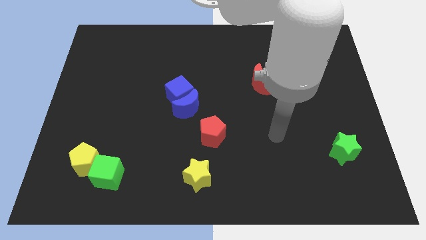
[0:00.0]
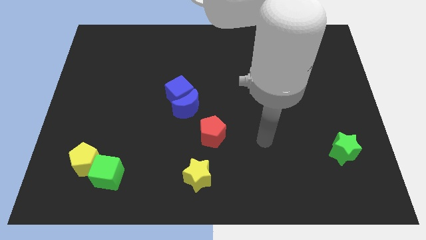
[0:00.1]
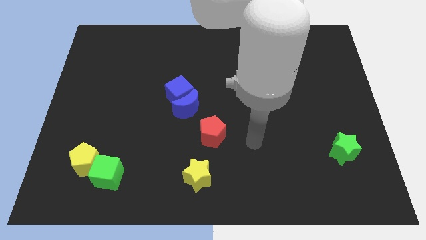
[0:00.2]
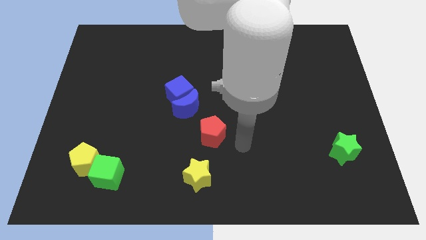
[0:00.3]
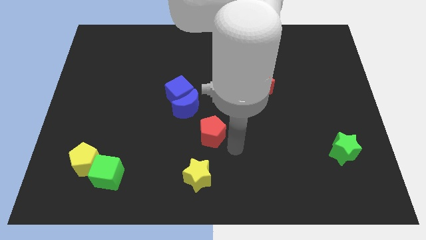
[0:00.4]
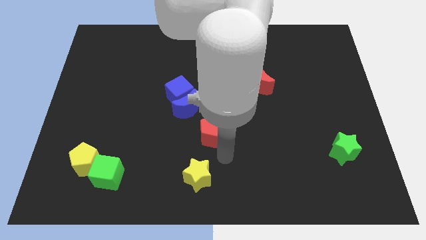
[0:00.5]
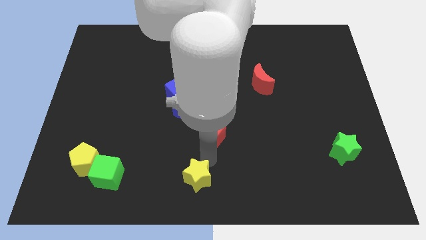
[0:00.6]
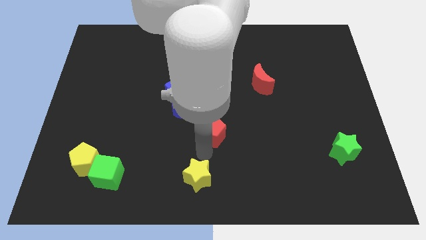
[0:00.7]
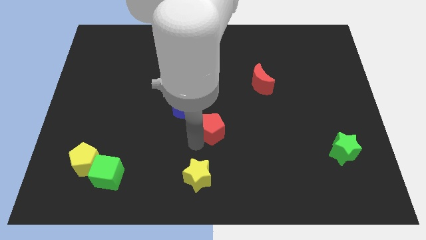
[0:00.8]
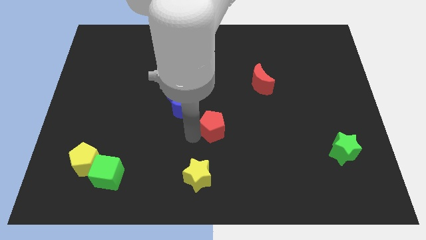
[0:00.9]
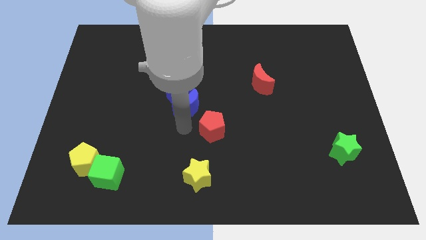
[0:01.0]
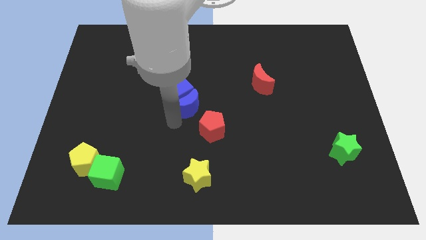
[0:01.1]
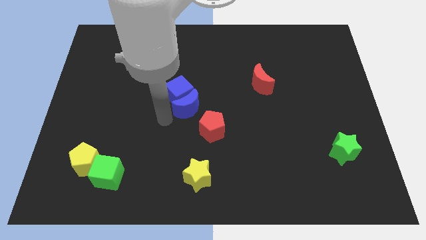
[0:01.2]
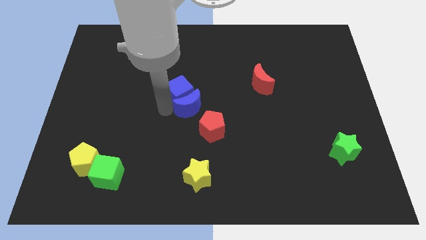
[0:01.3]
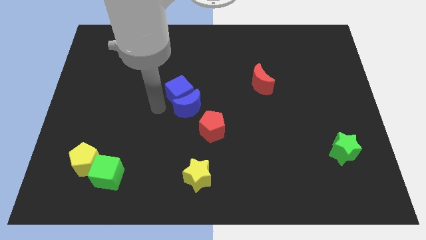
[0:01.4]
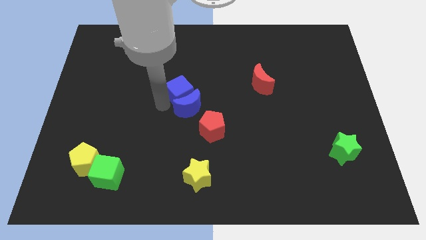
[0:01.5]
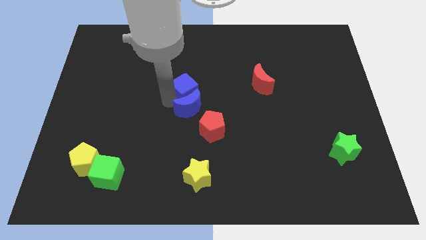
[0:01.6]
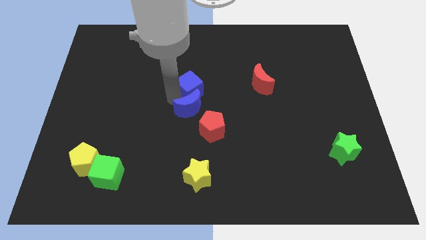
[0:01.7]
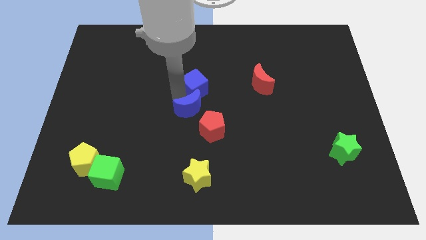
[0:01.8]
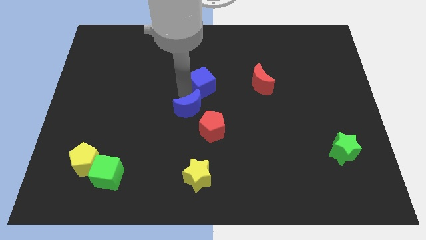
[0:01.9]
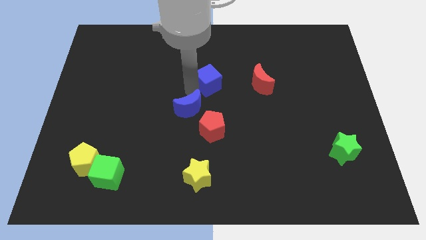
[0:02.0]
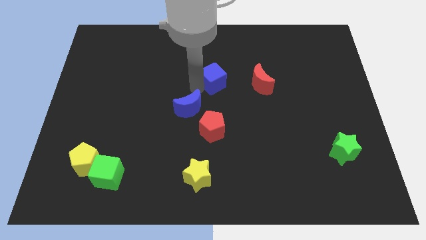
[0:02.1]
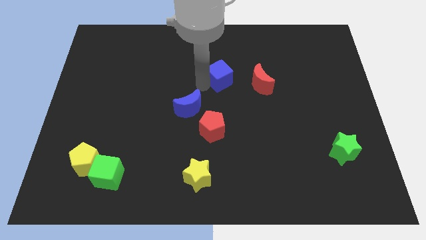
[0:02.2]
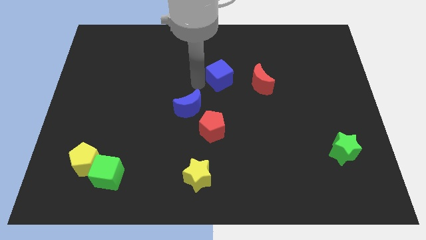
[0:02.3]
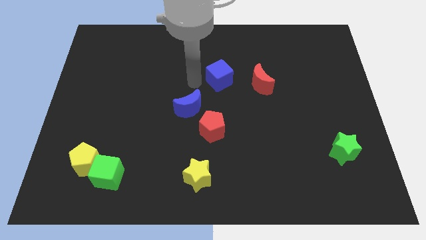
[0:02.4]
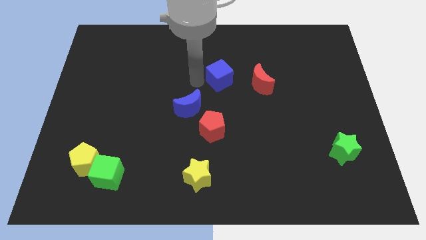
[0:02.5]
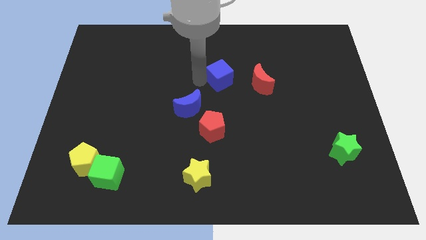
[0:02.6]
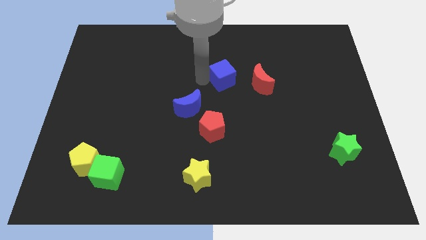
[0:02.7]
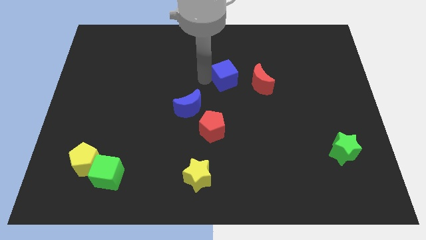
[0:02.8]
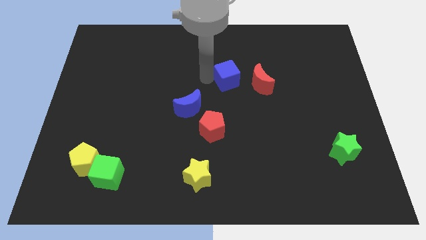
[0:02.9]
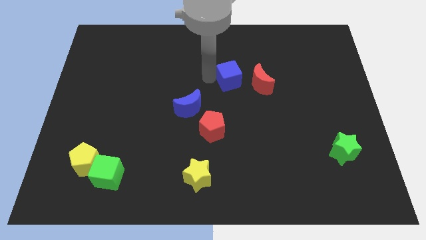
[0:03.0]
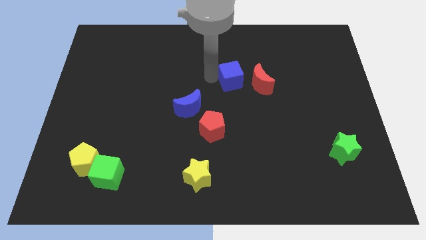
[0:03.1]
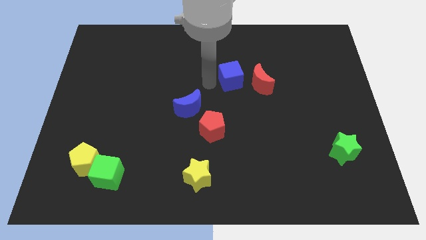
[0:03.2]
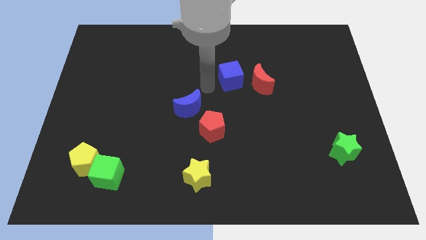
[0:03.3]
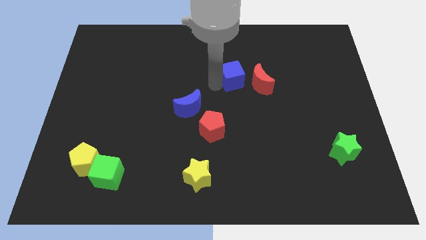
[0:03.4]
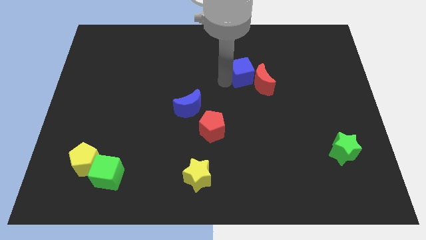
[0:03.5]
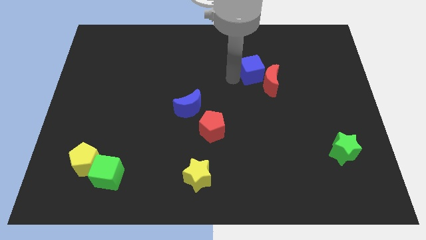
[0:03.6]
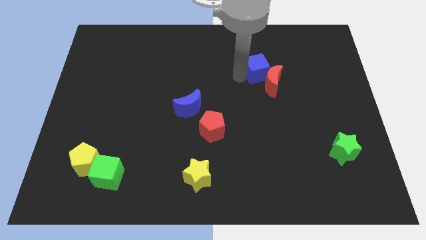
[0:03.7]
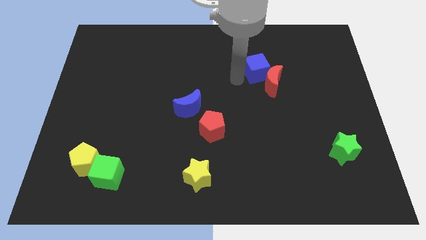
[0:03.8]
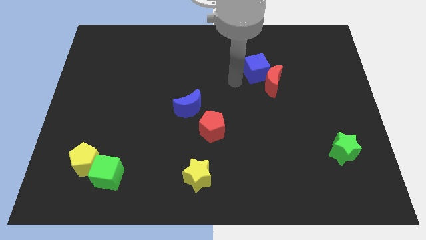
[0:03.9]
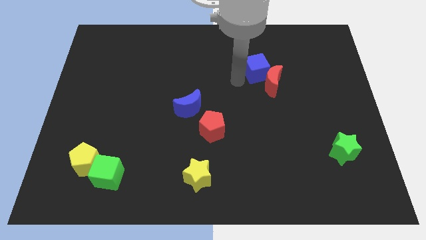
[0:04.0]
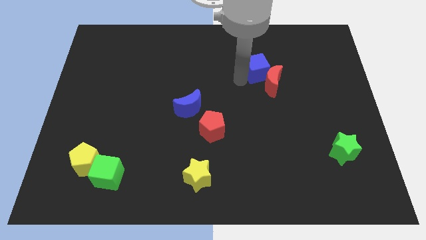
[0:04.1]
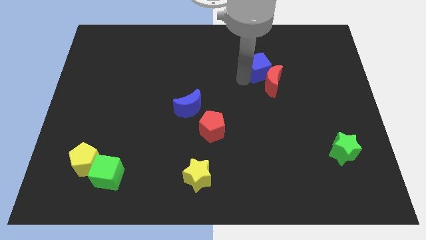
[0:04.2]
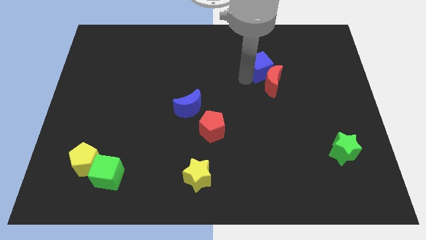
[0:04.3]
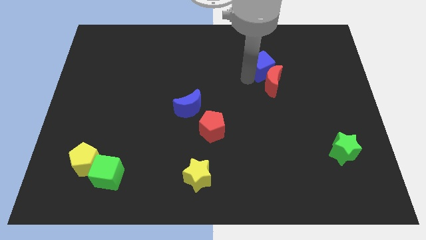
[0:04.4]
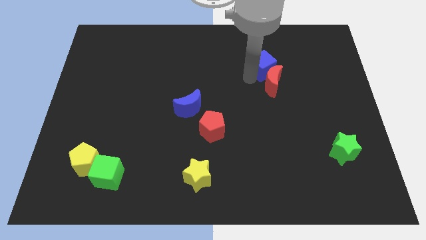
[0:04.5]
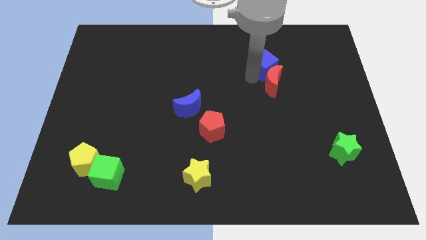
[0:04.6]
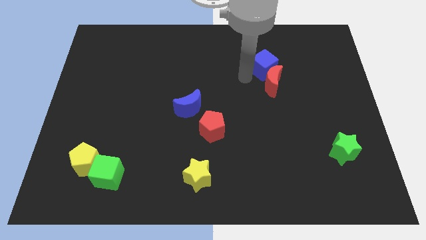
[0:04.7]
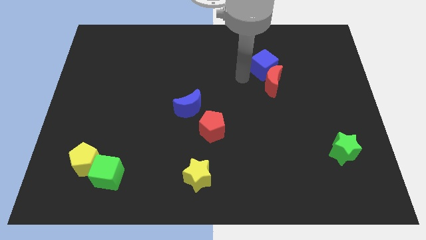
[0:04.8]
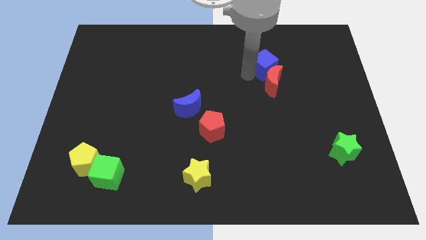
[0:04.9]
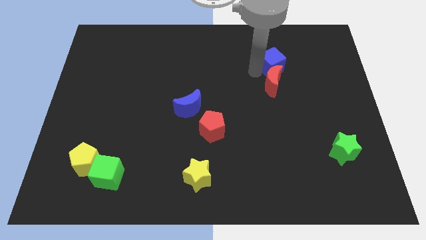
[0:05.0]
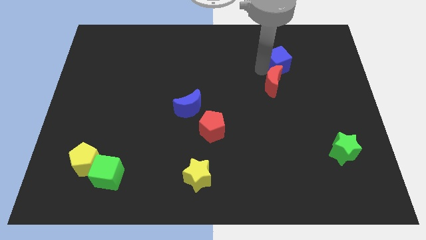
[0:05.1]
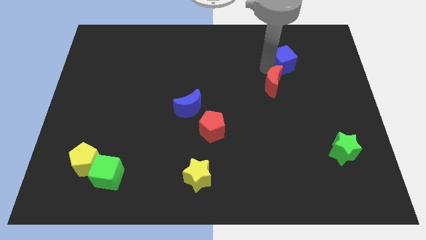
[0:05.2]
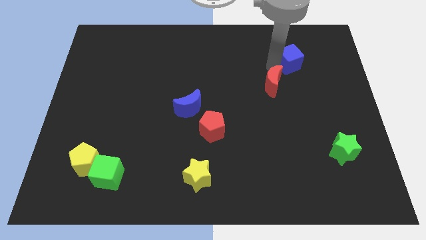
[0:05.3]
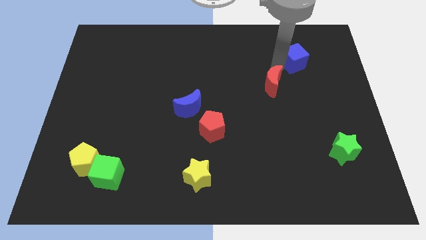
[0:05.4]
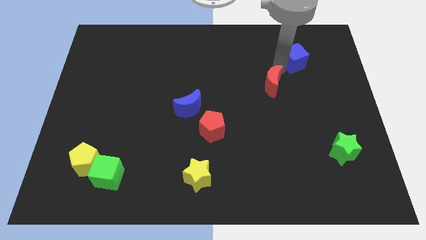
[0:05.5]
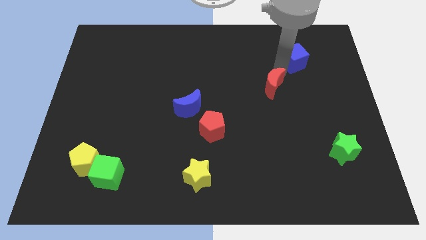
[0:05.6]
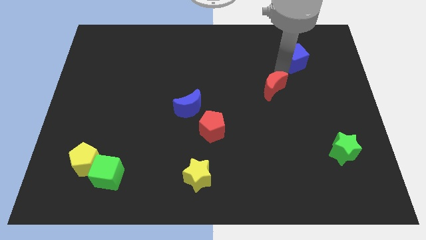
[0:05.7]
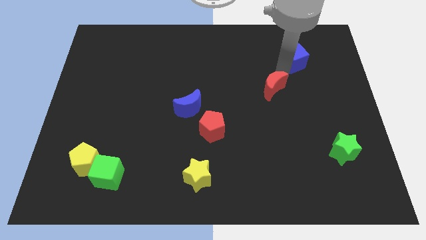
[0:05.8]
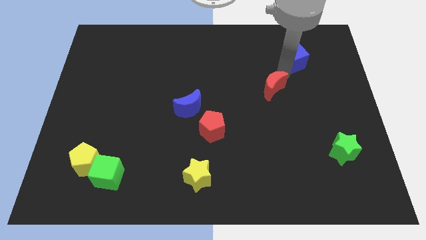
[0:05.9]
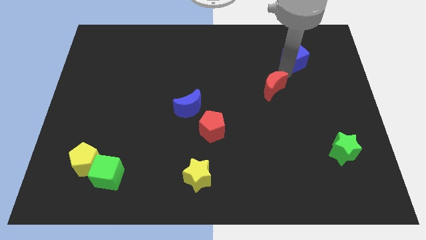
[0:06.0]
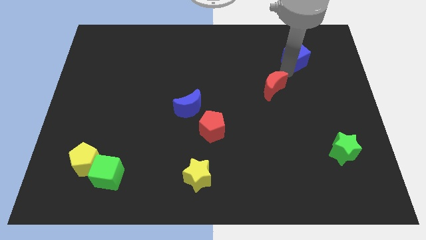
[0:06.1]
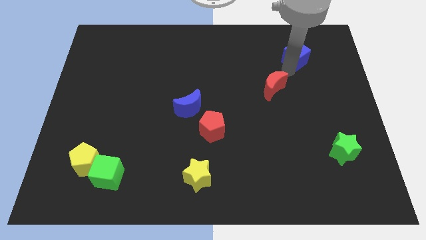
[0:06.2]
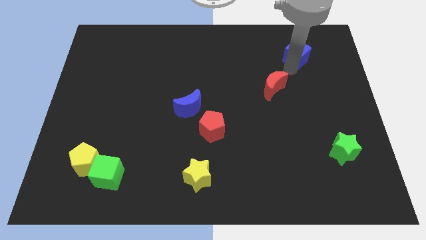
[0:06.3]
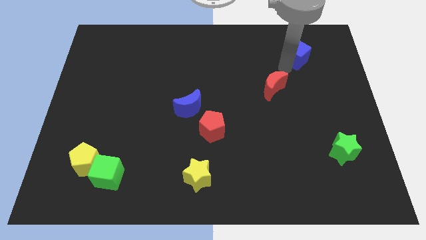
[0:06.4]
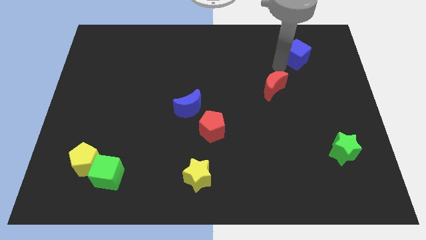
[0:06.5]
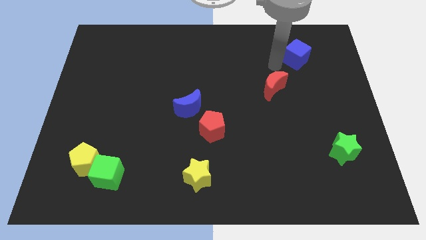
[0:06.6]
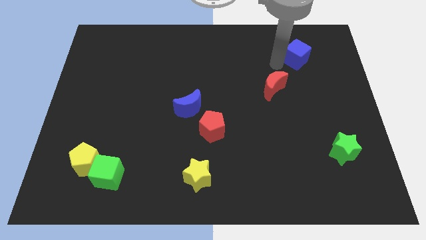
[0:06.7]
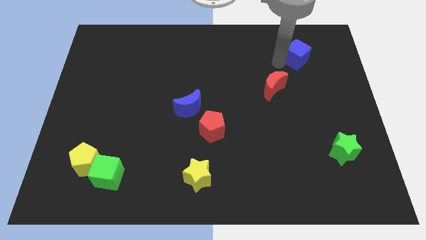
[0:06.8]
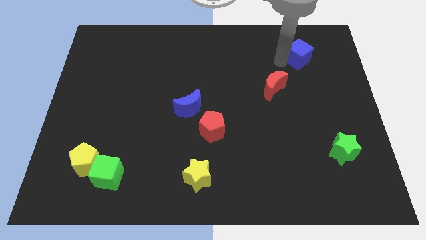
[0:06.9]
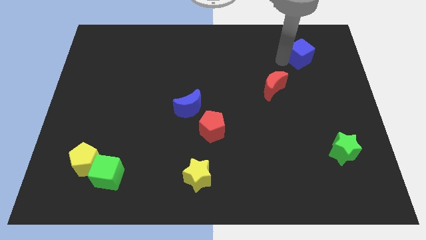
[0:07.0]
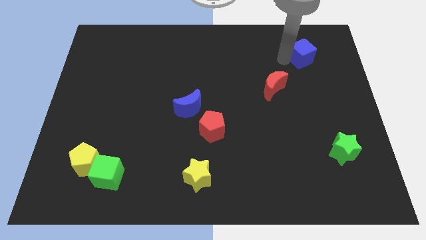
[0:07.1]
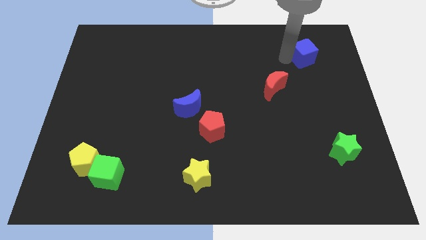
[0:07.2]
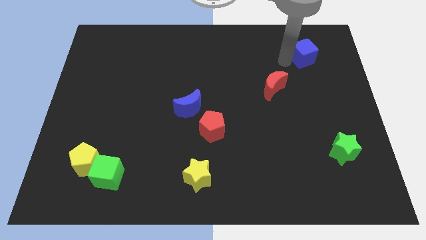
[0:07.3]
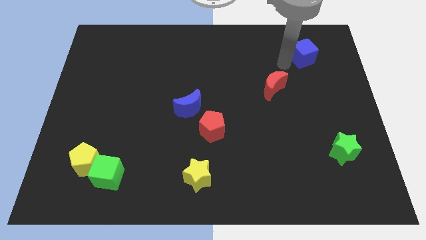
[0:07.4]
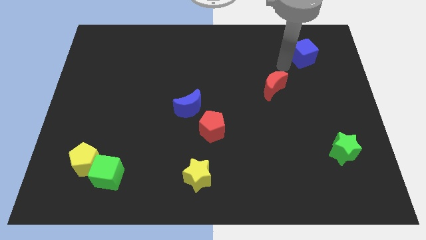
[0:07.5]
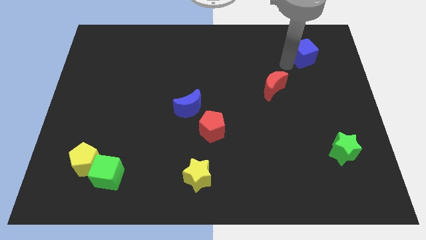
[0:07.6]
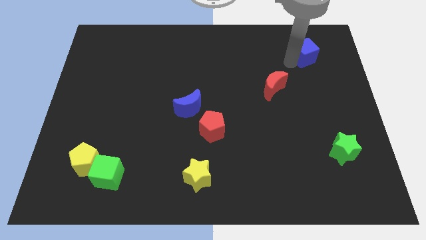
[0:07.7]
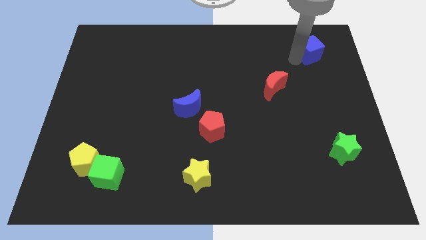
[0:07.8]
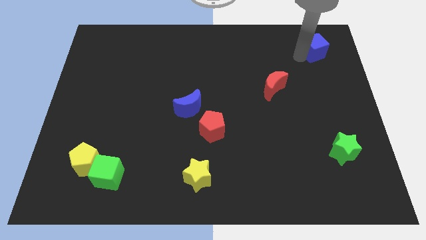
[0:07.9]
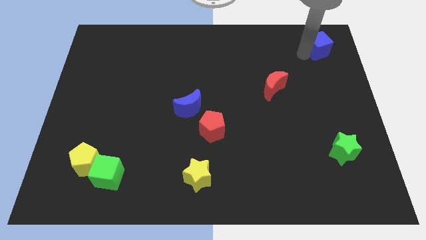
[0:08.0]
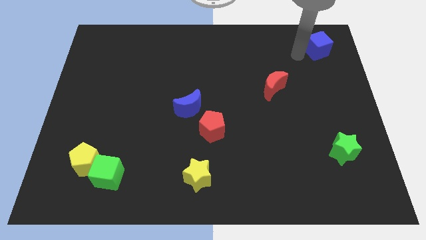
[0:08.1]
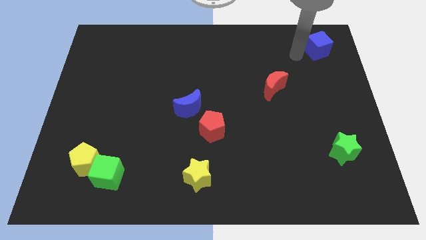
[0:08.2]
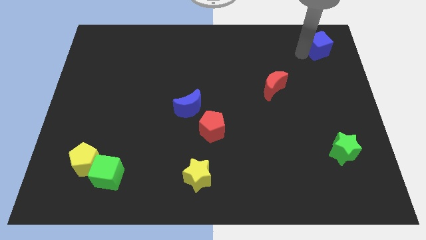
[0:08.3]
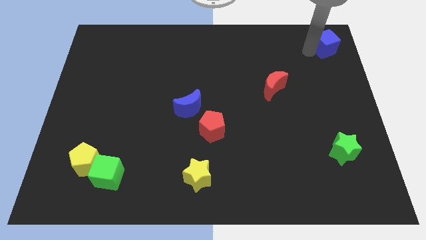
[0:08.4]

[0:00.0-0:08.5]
put the blue cube to the top right corner
